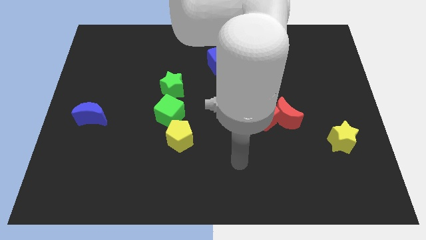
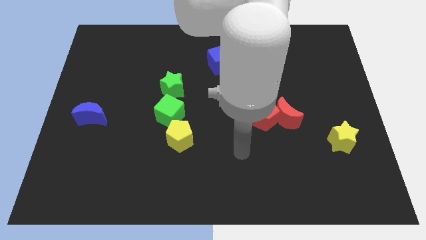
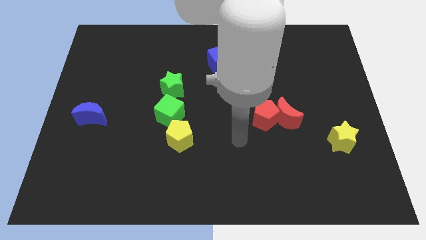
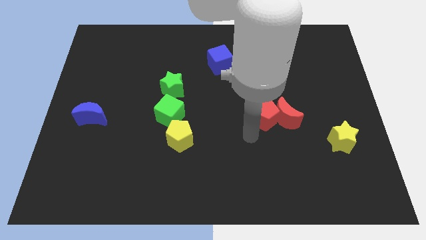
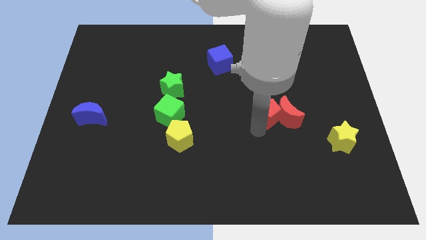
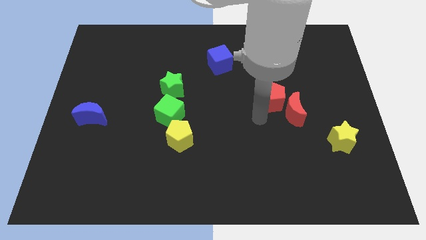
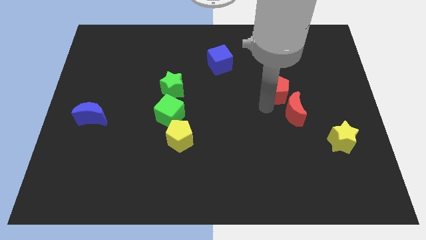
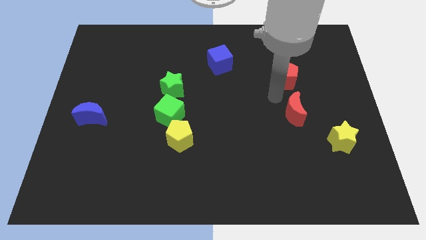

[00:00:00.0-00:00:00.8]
move the red moon away from the red pentagon

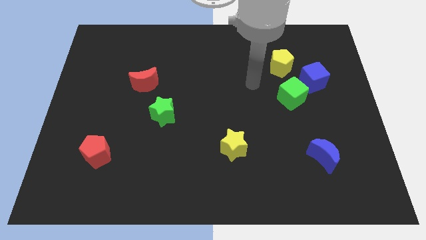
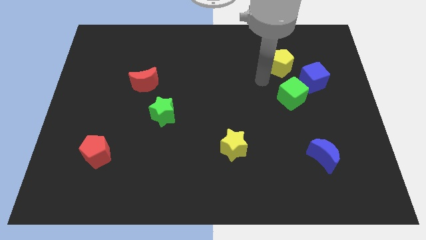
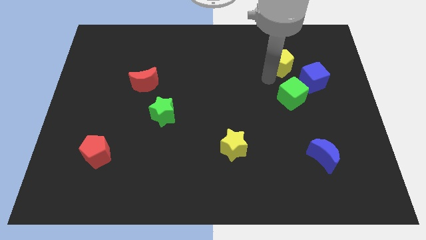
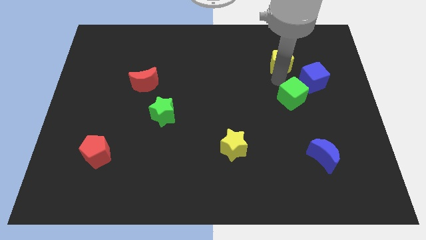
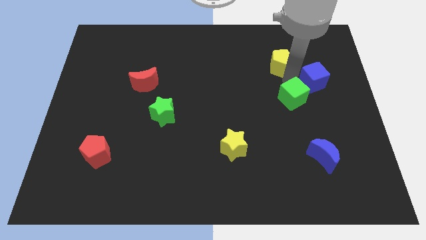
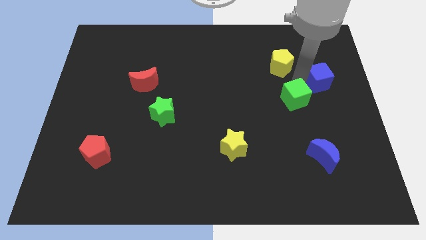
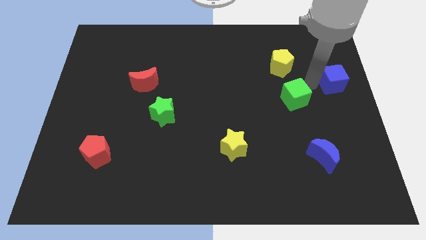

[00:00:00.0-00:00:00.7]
separate the green cube from the blue cube

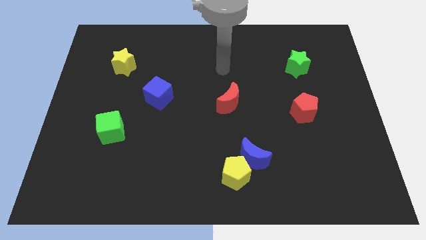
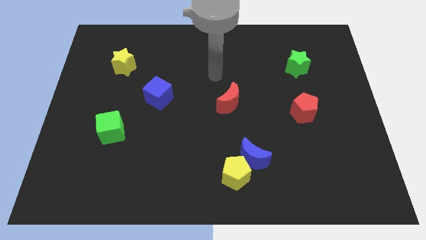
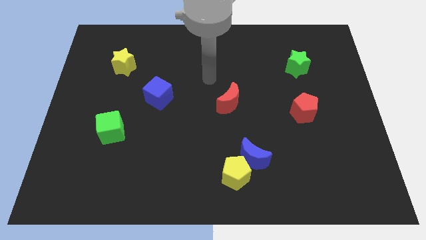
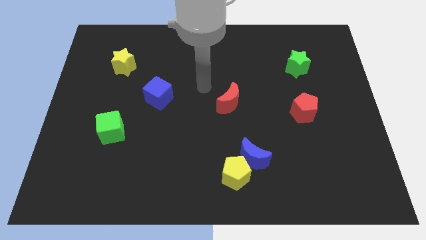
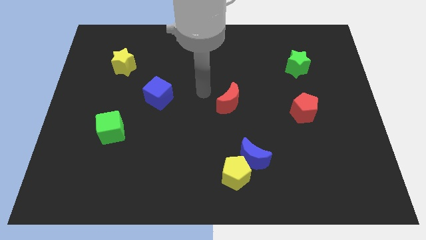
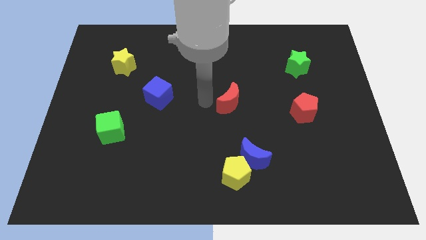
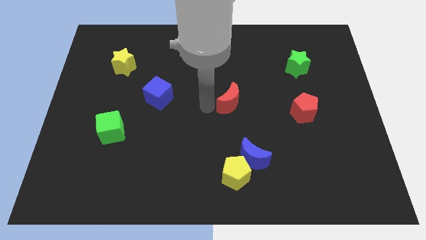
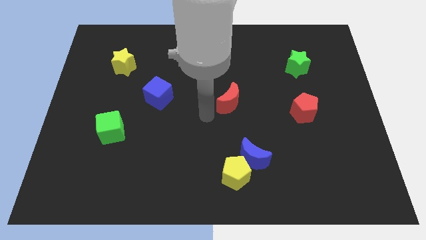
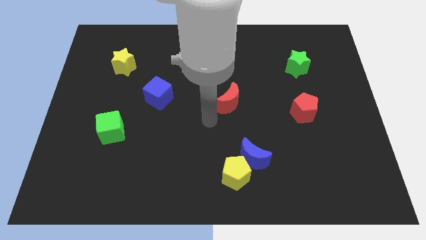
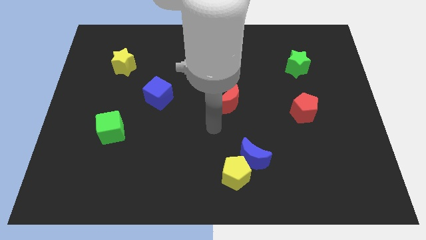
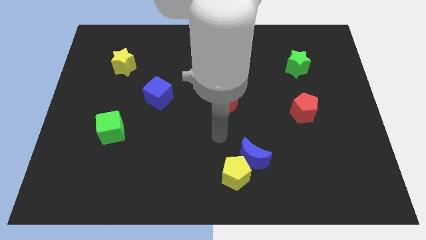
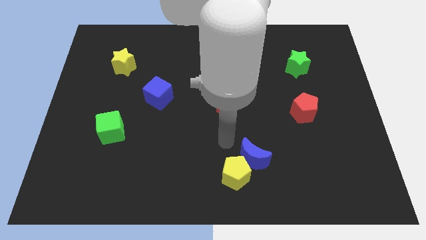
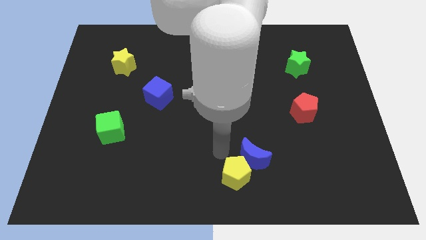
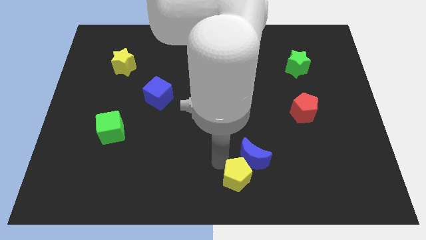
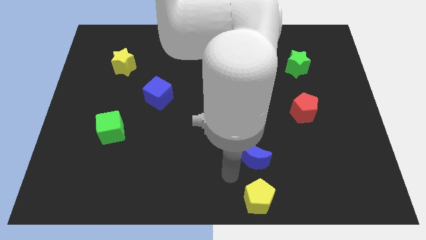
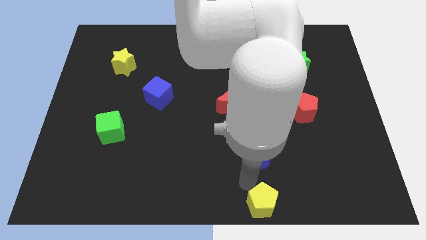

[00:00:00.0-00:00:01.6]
separate the blue moon from the yellow pentagon

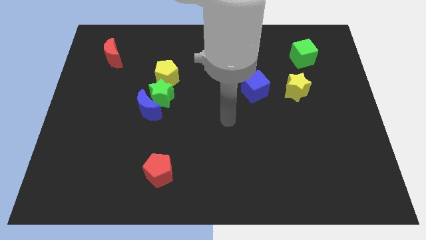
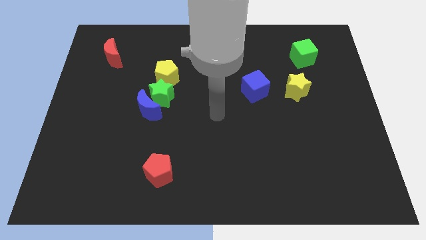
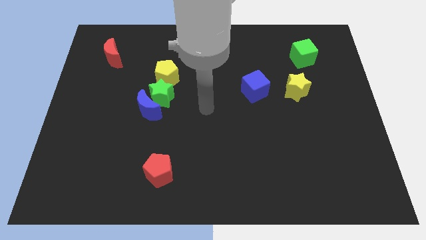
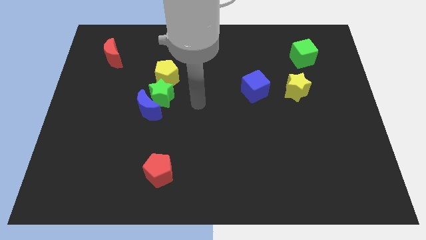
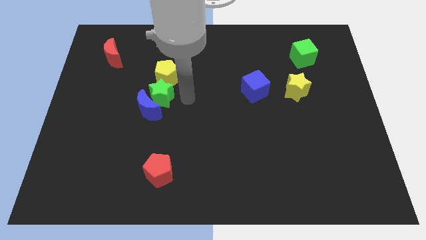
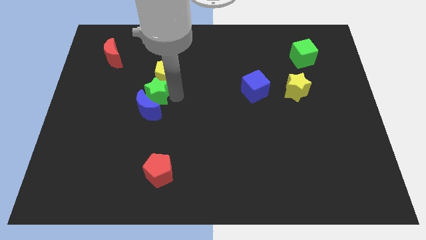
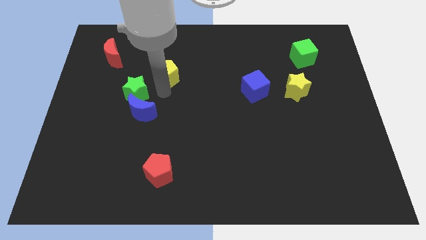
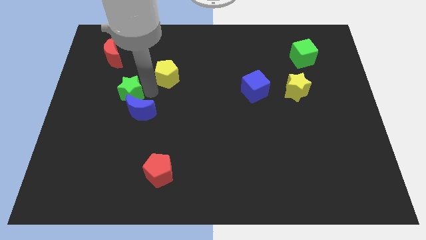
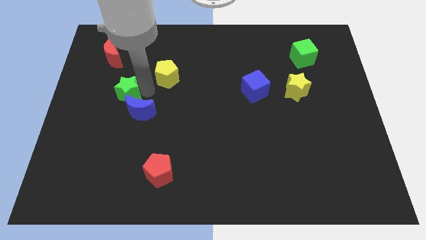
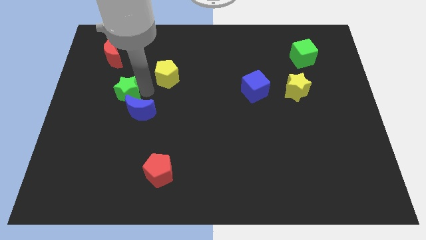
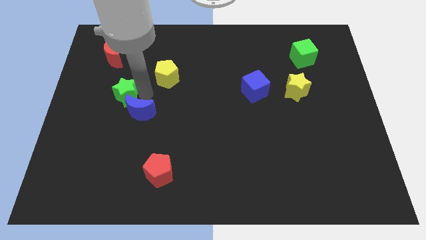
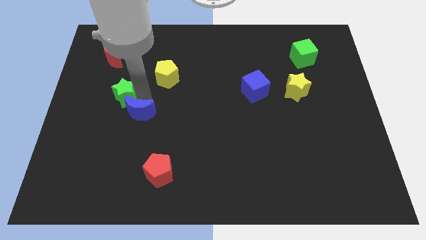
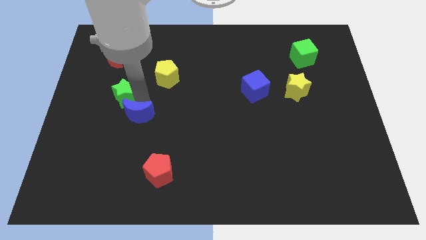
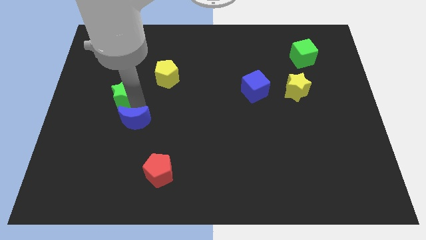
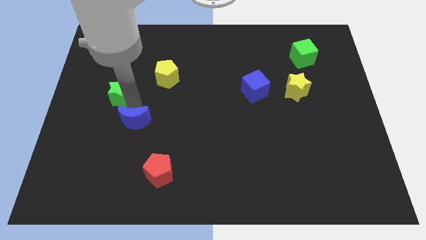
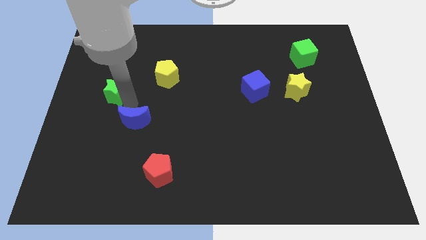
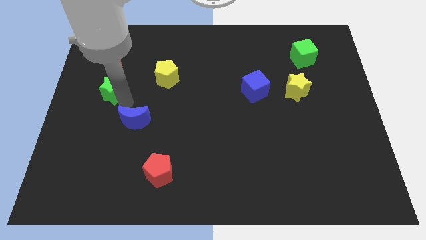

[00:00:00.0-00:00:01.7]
pull the blue moon apart from the green star

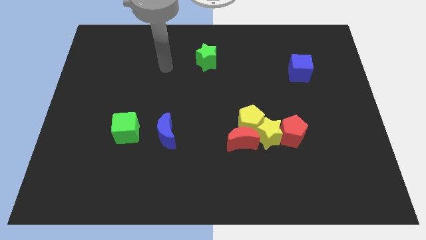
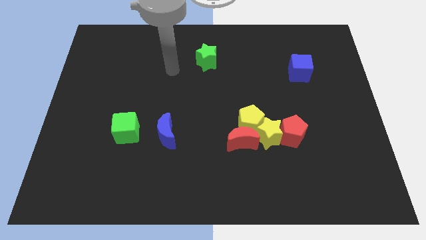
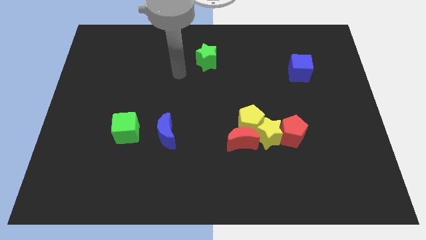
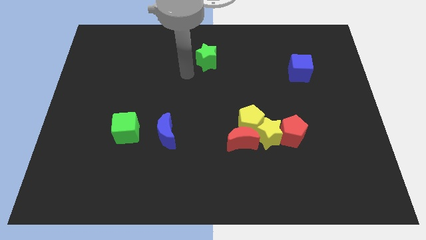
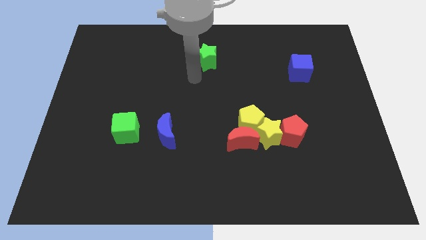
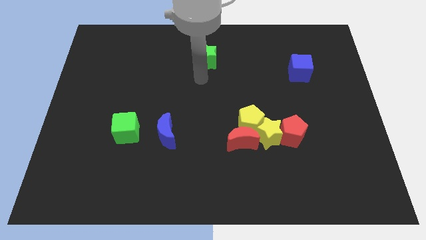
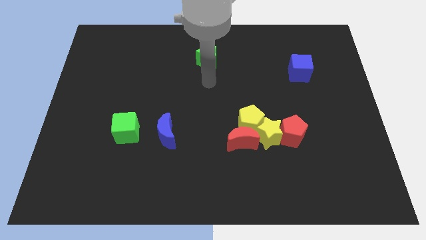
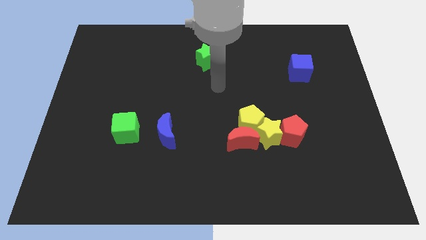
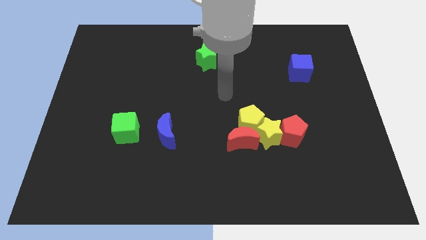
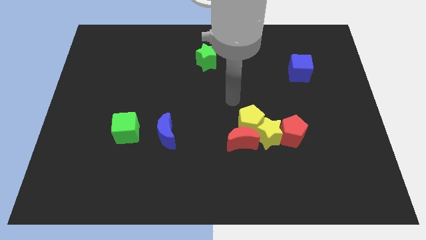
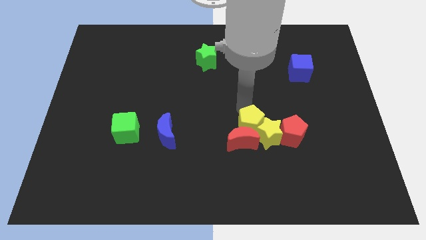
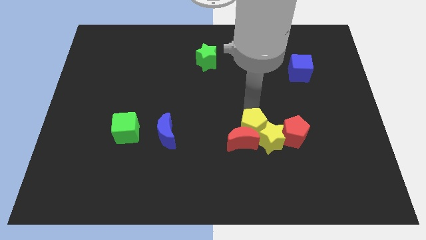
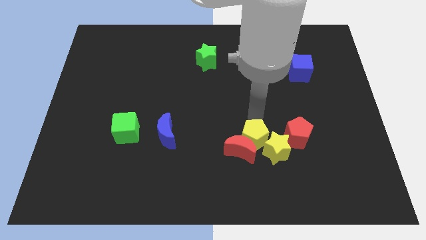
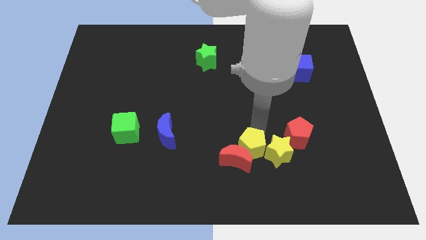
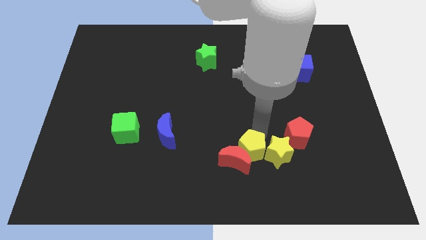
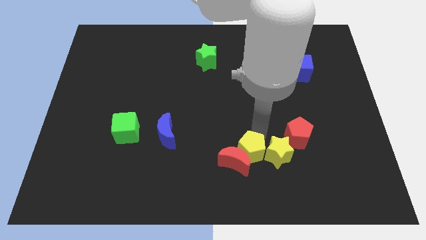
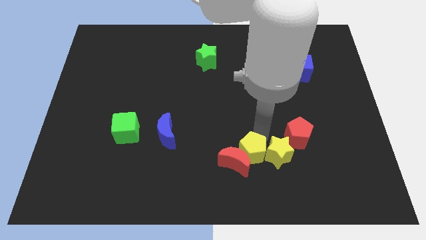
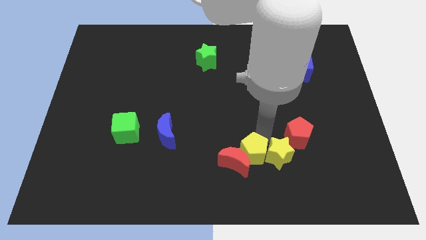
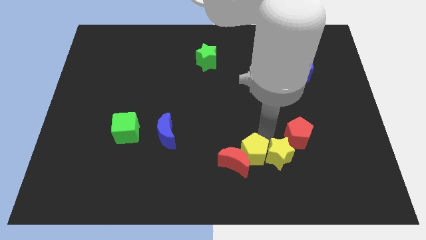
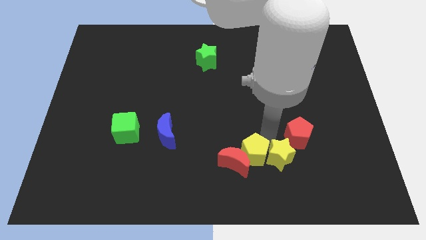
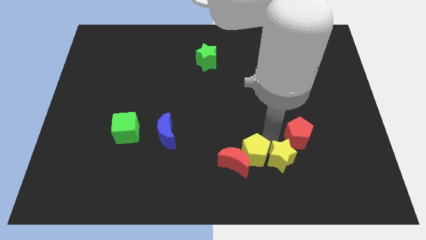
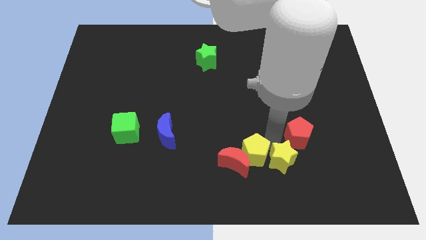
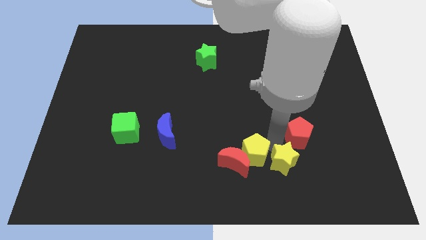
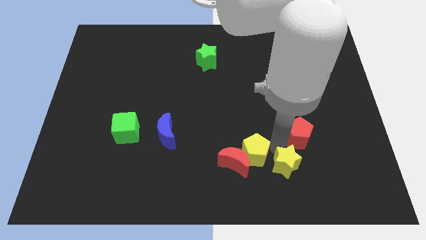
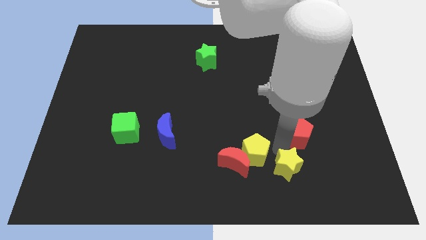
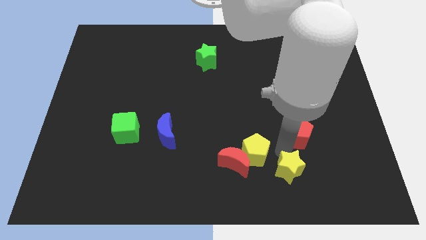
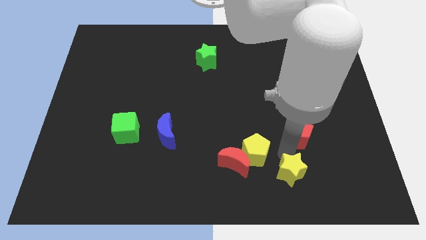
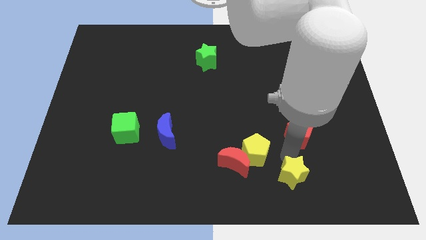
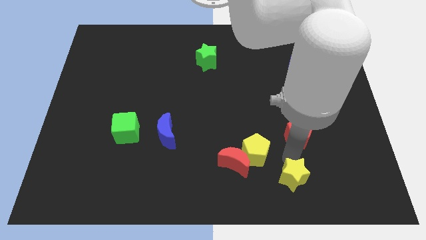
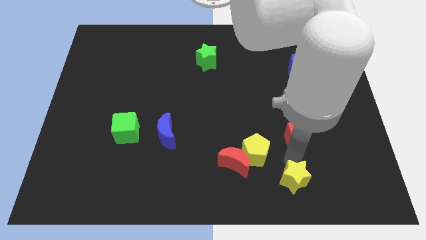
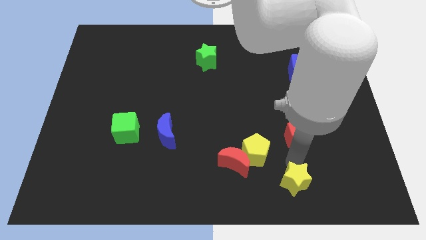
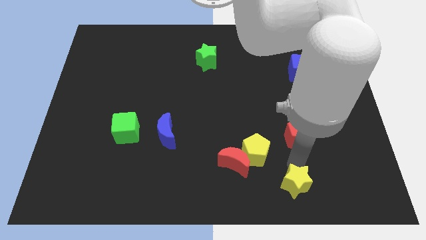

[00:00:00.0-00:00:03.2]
separate the yellow star from the clump

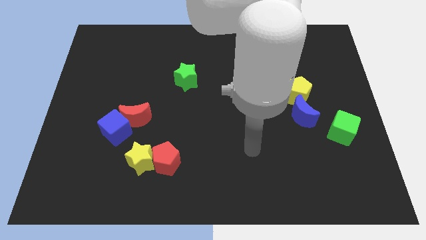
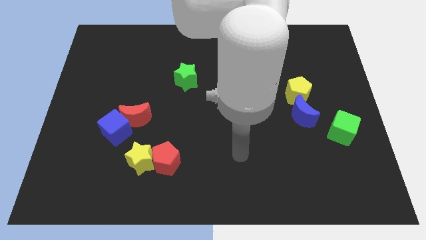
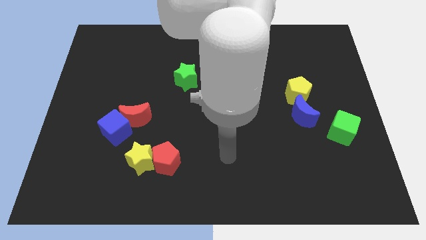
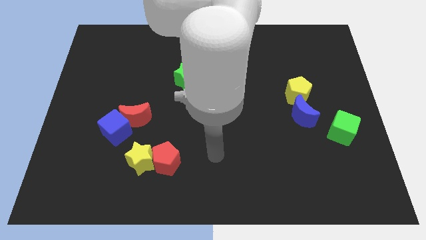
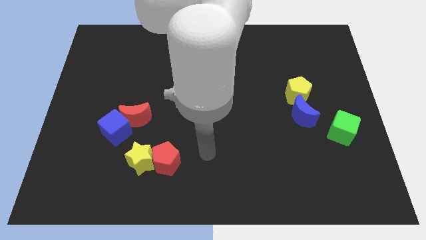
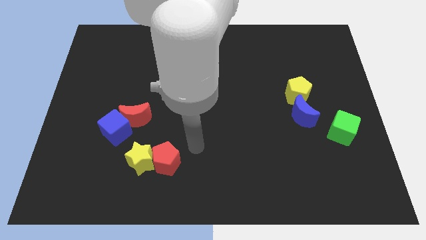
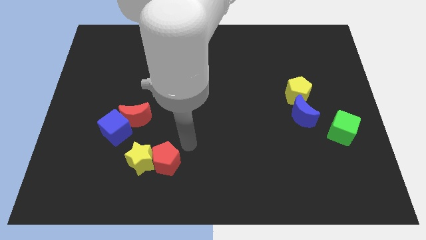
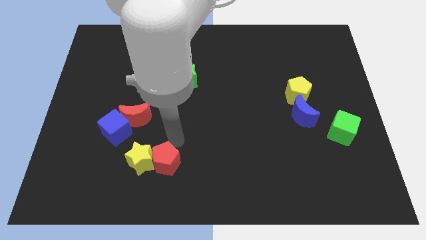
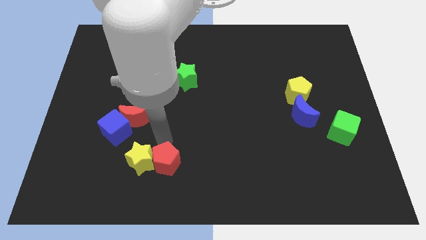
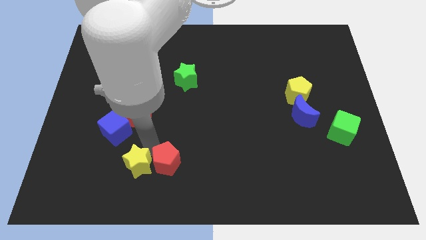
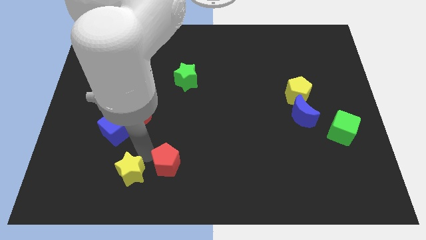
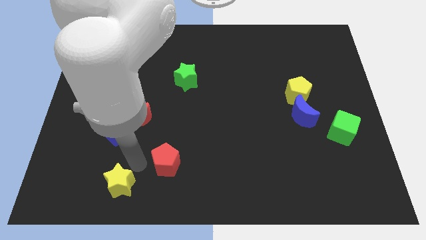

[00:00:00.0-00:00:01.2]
move the red pentagon away from the yellow star
